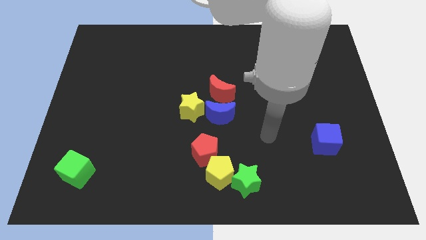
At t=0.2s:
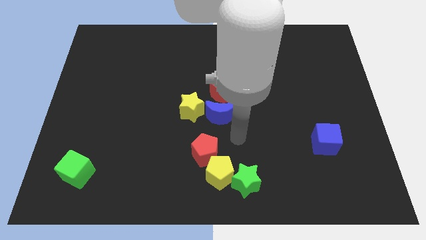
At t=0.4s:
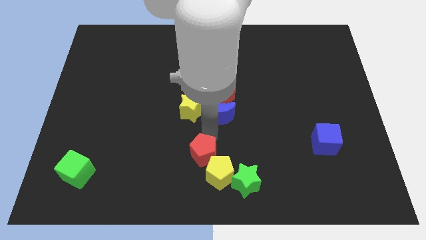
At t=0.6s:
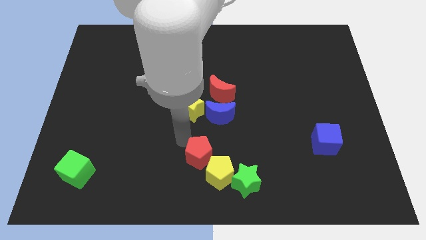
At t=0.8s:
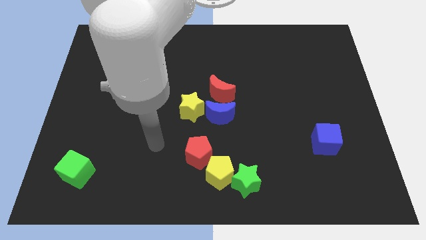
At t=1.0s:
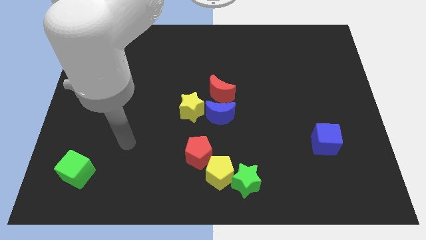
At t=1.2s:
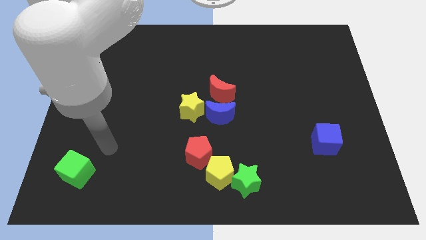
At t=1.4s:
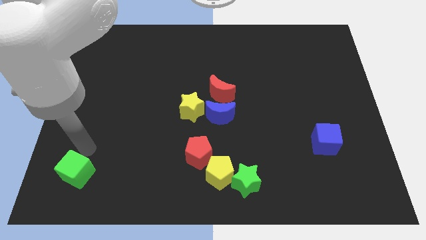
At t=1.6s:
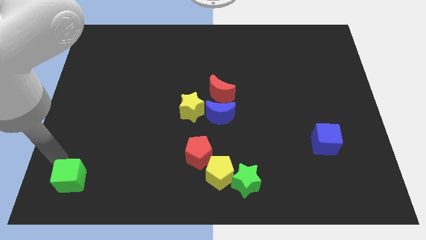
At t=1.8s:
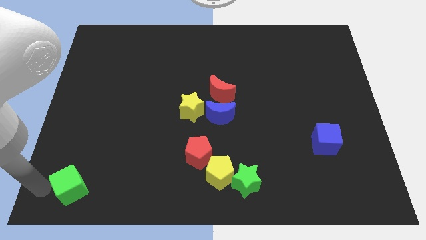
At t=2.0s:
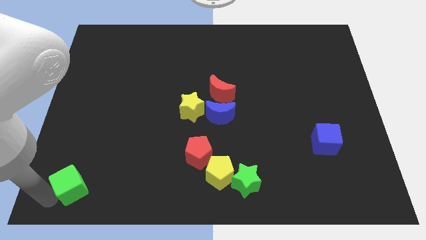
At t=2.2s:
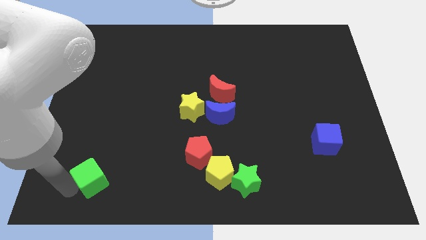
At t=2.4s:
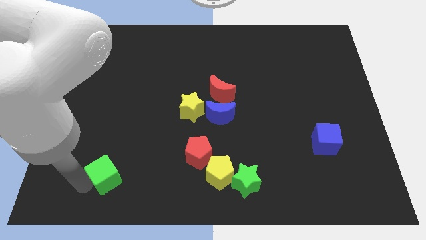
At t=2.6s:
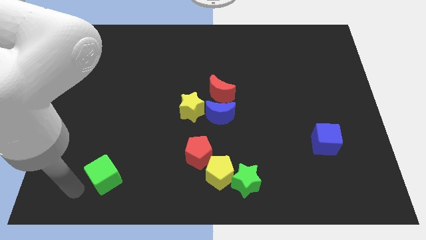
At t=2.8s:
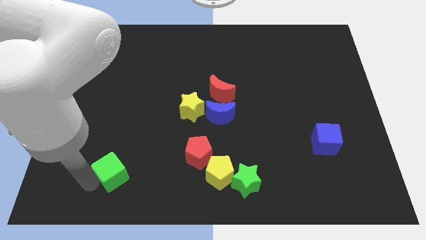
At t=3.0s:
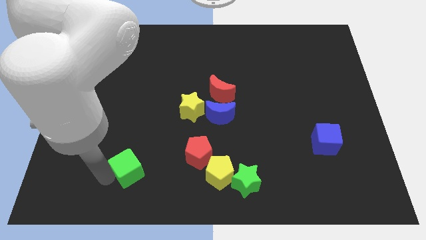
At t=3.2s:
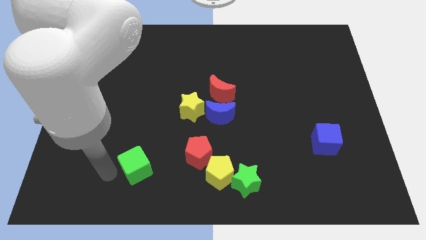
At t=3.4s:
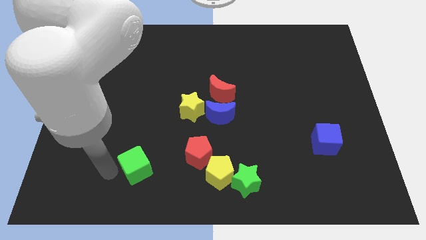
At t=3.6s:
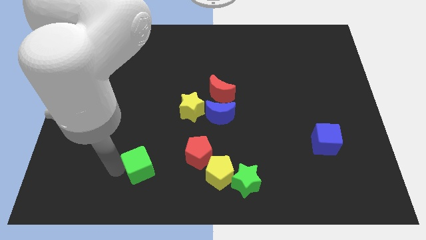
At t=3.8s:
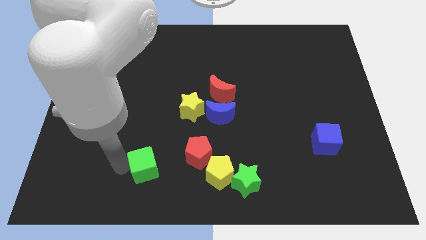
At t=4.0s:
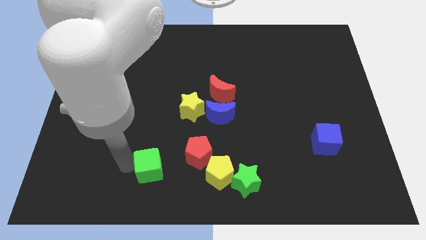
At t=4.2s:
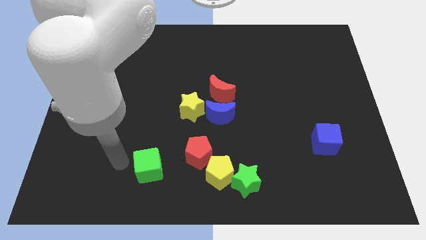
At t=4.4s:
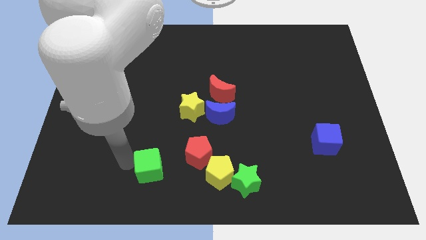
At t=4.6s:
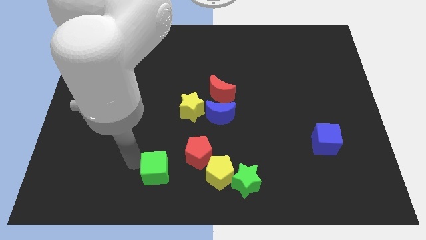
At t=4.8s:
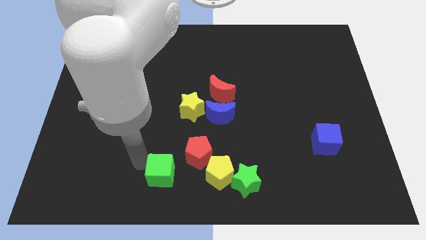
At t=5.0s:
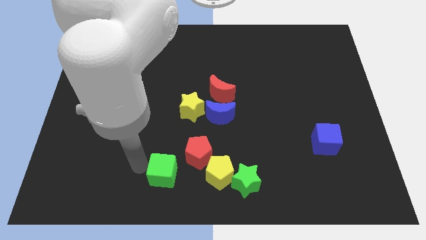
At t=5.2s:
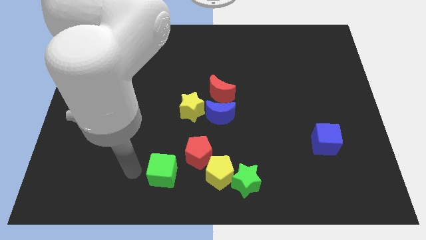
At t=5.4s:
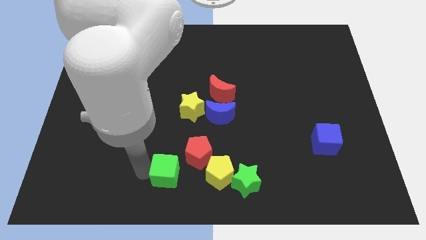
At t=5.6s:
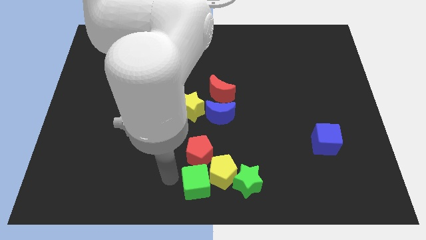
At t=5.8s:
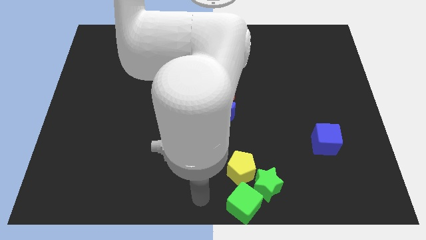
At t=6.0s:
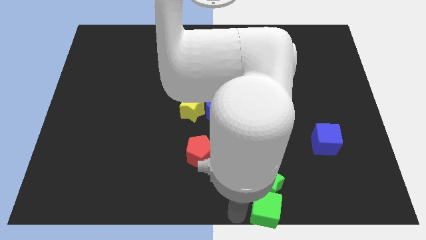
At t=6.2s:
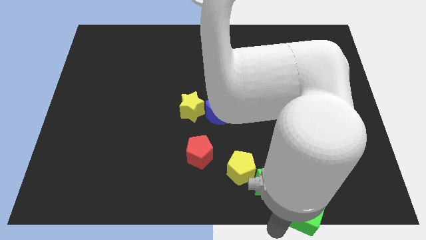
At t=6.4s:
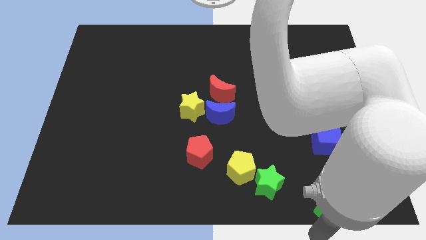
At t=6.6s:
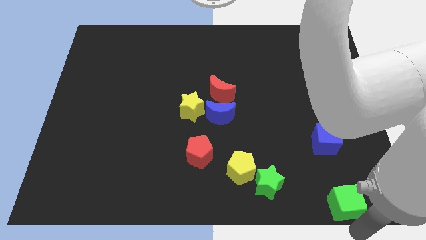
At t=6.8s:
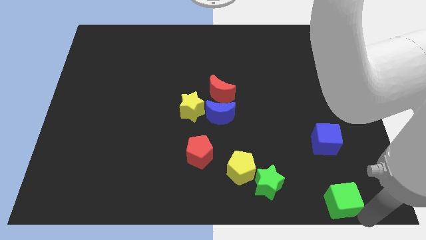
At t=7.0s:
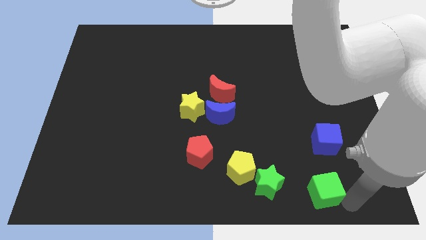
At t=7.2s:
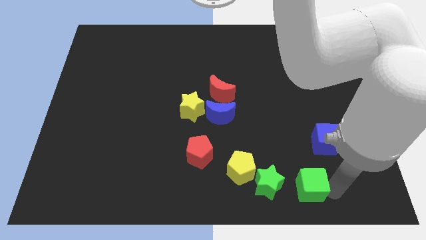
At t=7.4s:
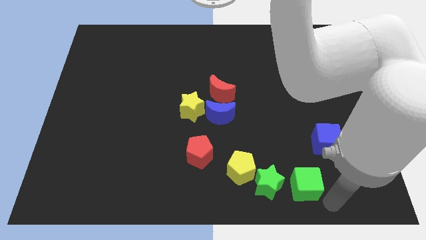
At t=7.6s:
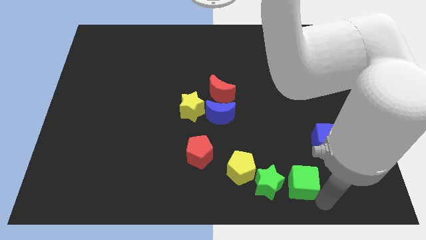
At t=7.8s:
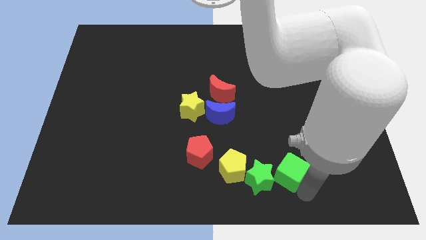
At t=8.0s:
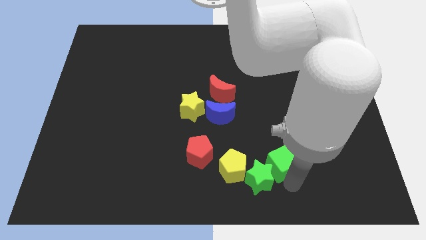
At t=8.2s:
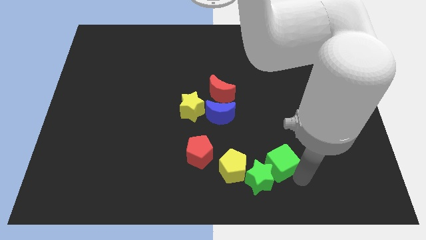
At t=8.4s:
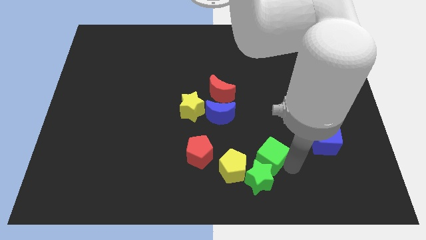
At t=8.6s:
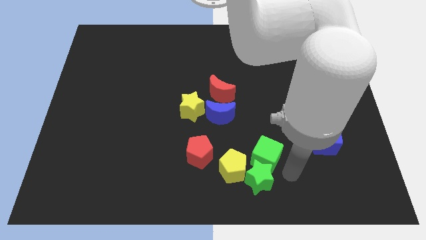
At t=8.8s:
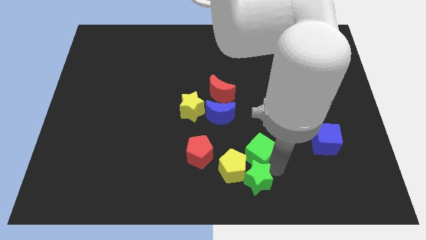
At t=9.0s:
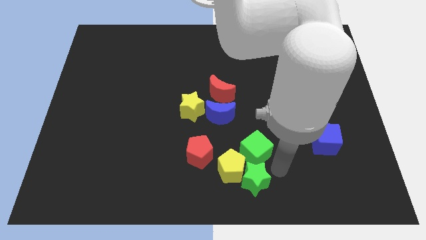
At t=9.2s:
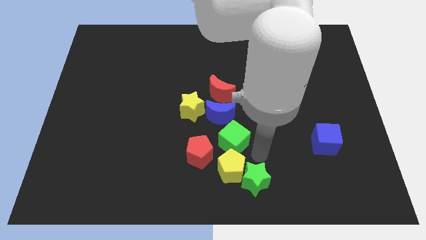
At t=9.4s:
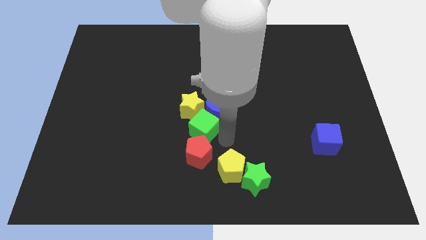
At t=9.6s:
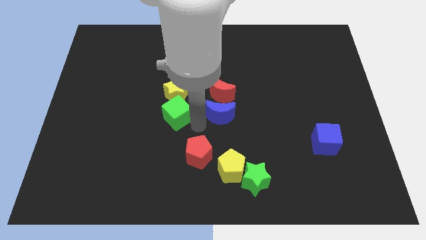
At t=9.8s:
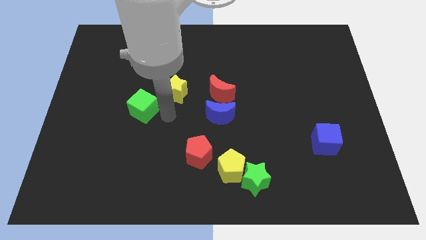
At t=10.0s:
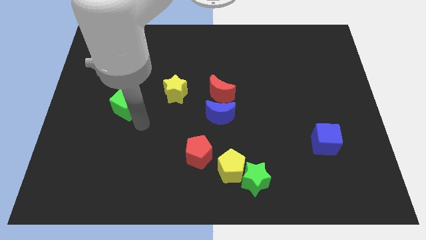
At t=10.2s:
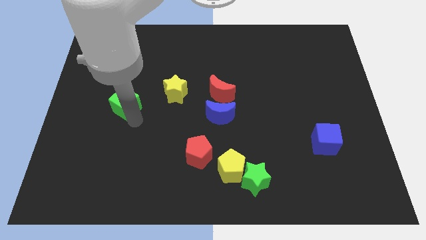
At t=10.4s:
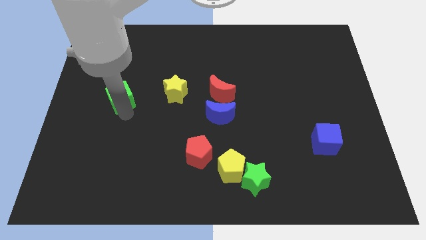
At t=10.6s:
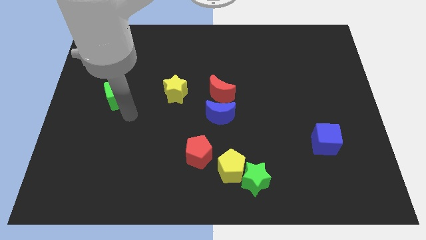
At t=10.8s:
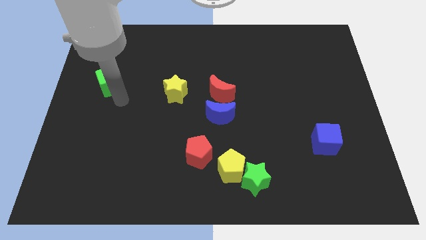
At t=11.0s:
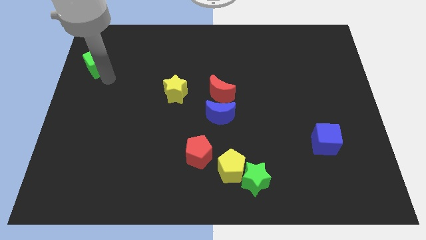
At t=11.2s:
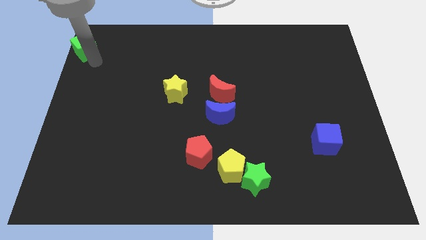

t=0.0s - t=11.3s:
put the green cube to the top left corner

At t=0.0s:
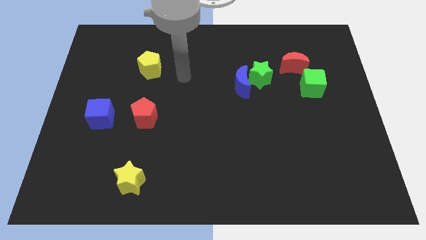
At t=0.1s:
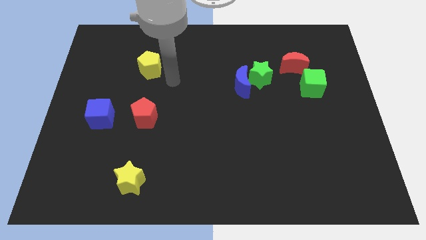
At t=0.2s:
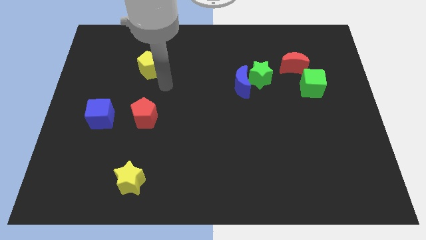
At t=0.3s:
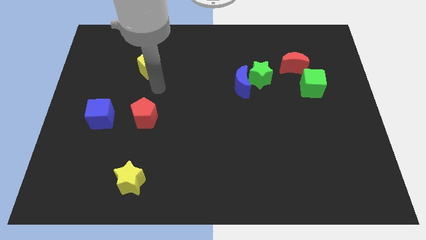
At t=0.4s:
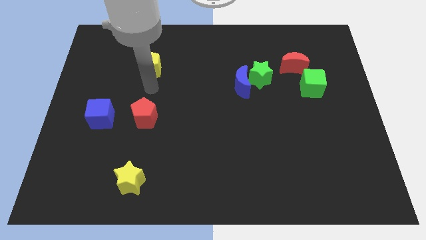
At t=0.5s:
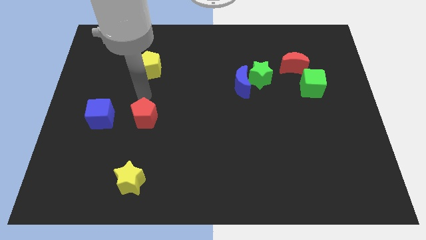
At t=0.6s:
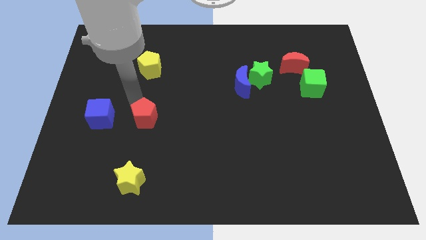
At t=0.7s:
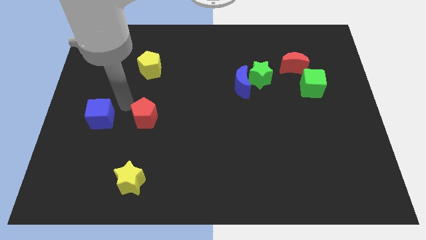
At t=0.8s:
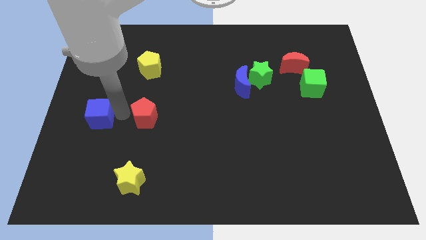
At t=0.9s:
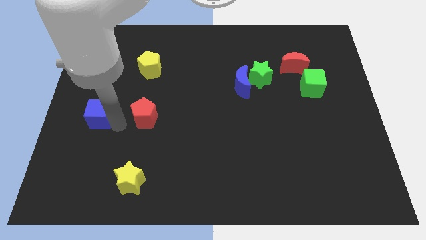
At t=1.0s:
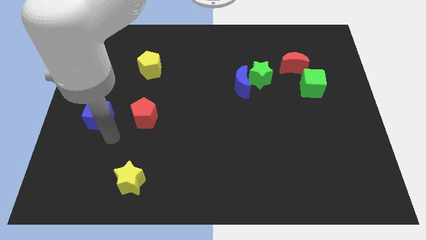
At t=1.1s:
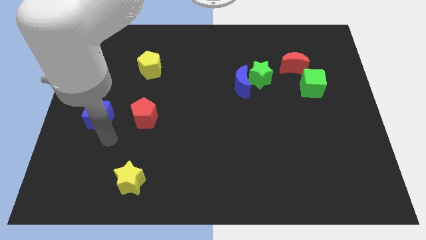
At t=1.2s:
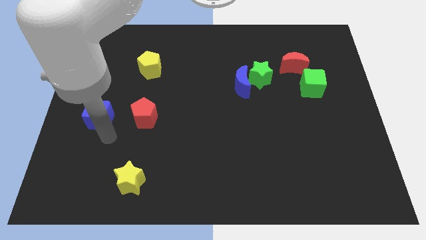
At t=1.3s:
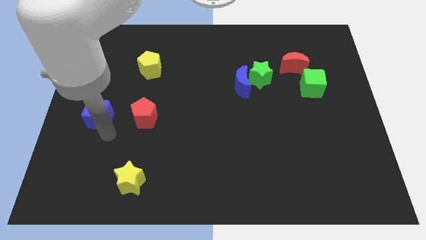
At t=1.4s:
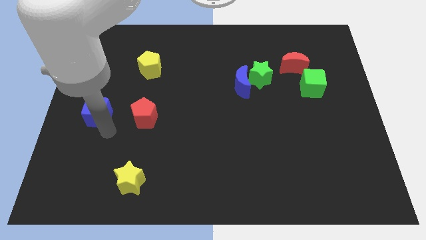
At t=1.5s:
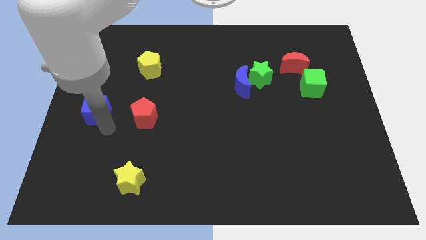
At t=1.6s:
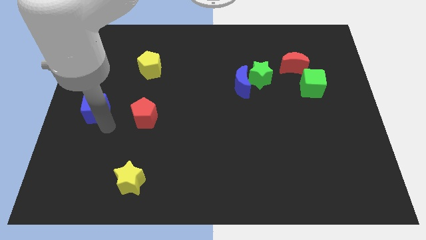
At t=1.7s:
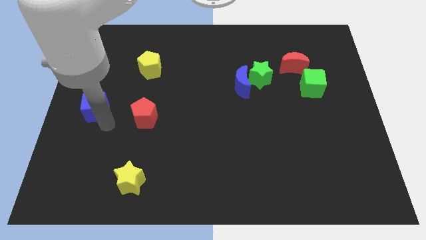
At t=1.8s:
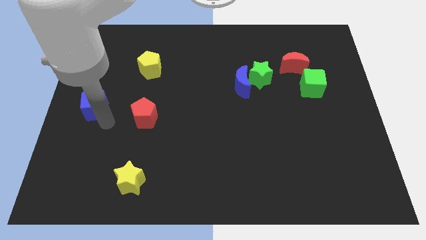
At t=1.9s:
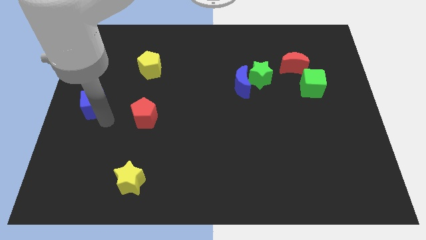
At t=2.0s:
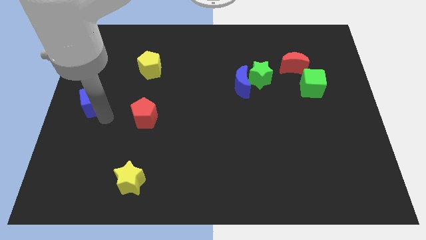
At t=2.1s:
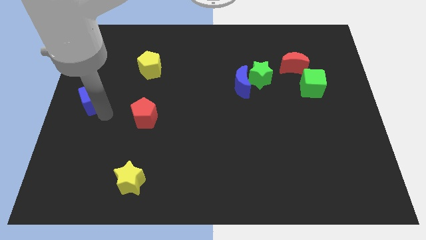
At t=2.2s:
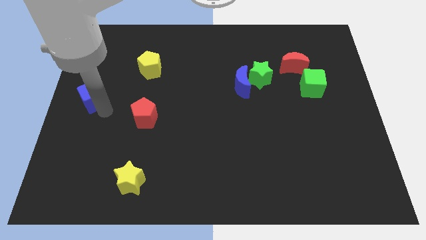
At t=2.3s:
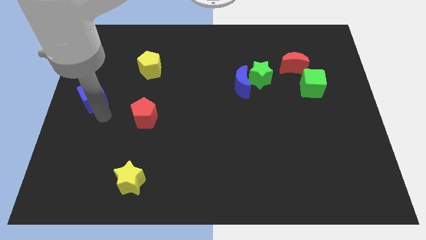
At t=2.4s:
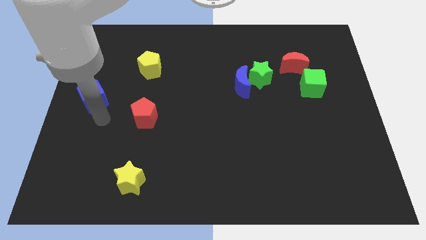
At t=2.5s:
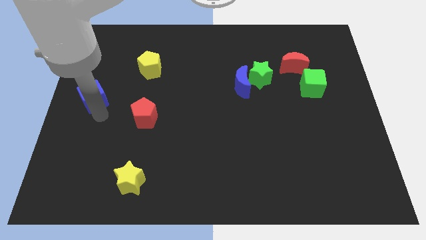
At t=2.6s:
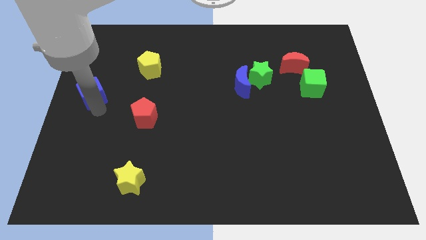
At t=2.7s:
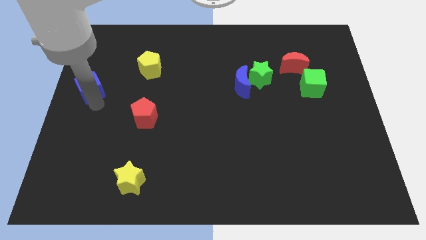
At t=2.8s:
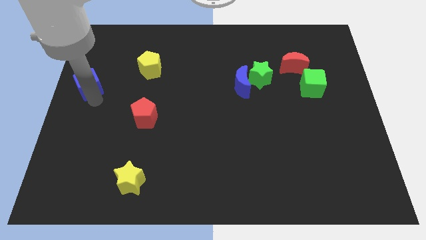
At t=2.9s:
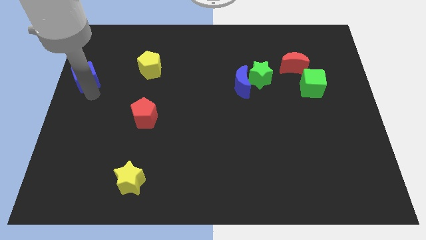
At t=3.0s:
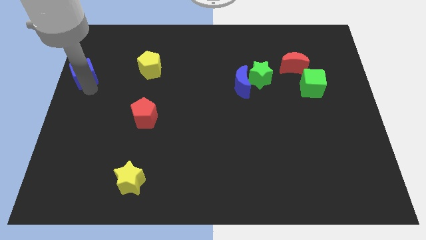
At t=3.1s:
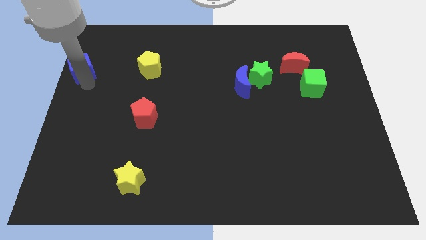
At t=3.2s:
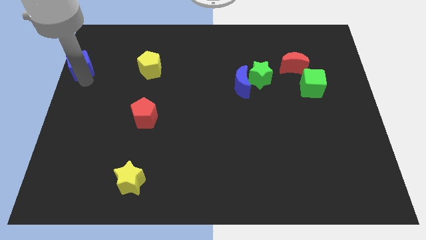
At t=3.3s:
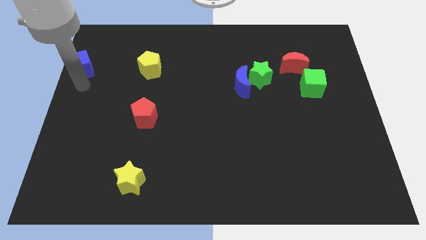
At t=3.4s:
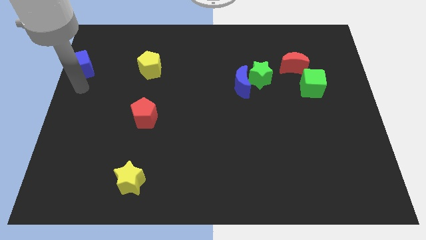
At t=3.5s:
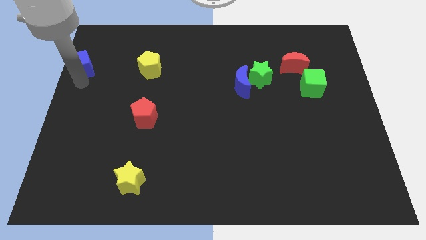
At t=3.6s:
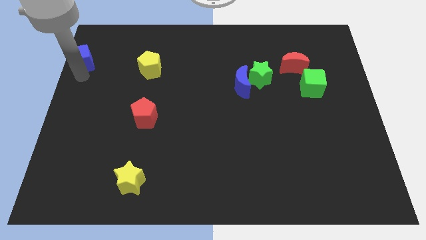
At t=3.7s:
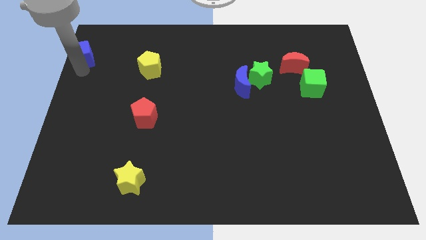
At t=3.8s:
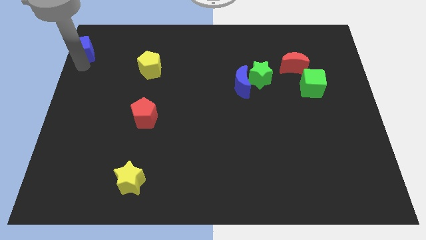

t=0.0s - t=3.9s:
move the blue cube to the top left
